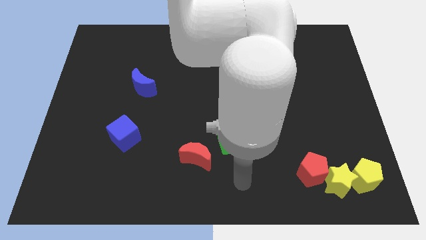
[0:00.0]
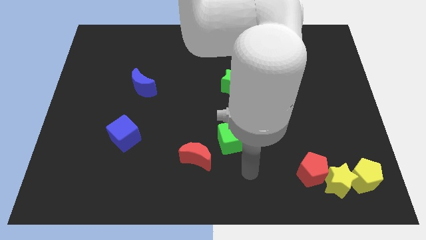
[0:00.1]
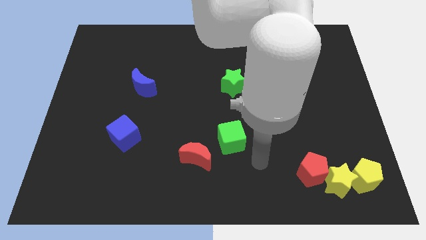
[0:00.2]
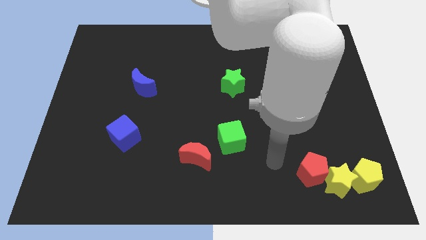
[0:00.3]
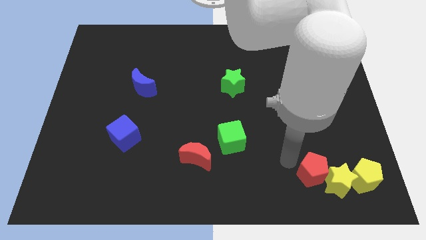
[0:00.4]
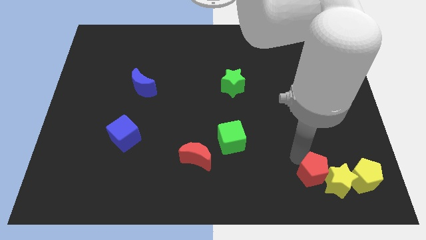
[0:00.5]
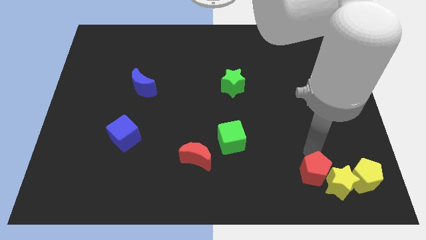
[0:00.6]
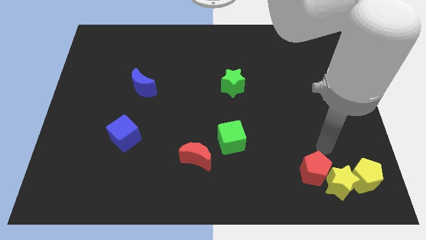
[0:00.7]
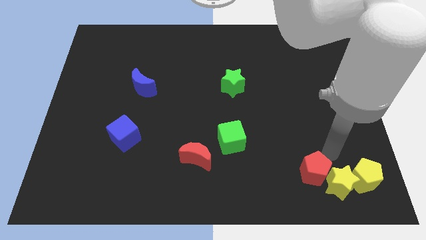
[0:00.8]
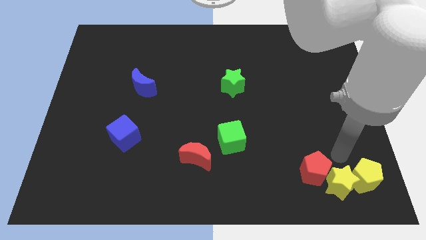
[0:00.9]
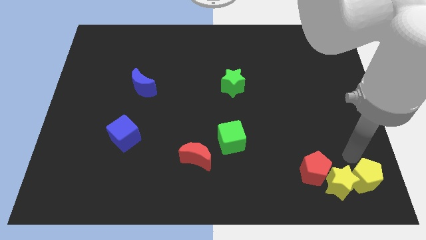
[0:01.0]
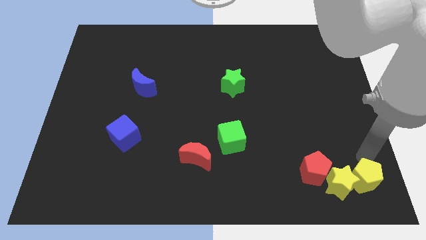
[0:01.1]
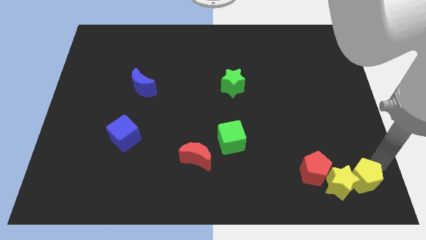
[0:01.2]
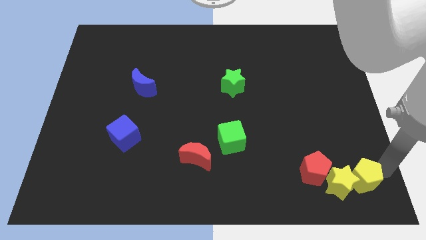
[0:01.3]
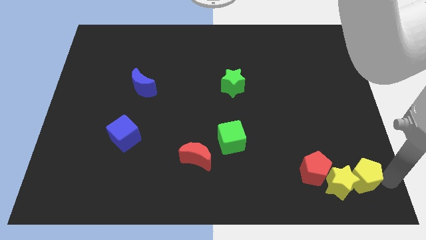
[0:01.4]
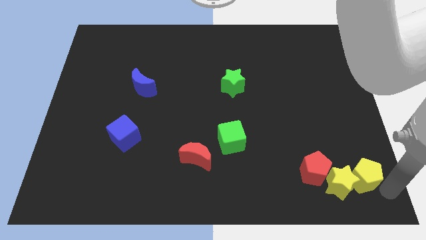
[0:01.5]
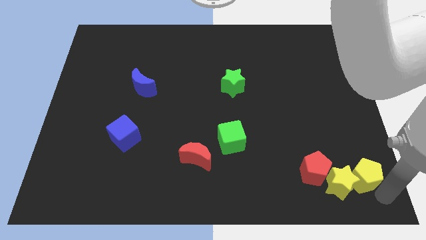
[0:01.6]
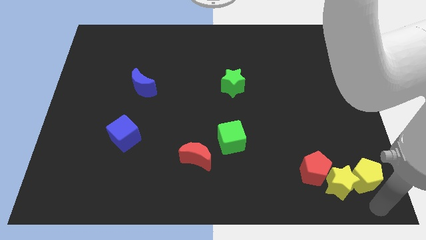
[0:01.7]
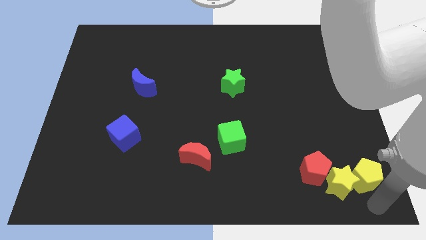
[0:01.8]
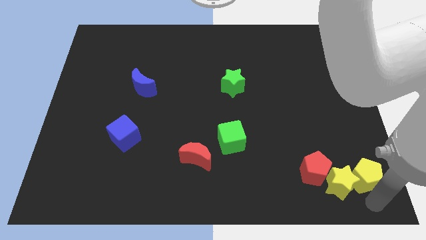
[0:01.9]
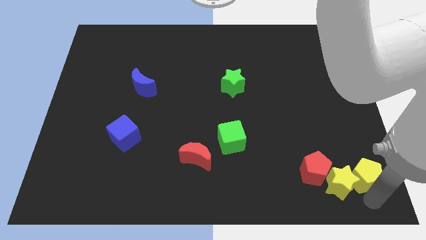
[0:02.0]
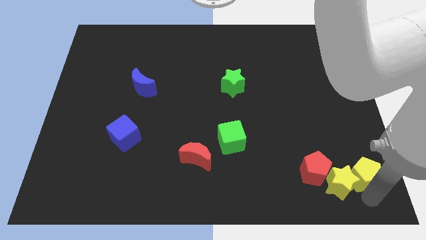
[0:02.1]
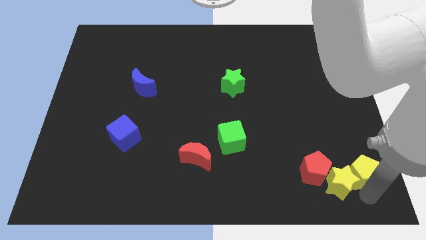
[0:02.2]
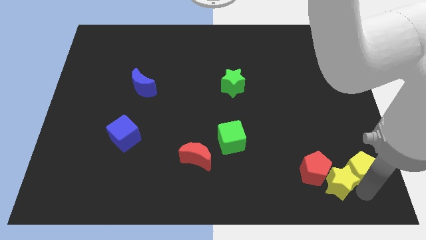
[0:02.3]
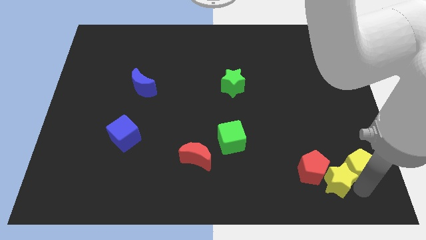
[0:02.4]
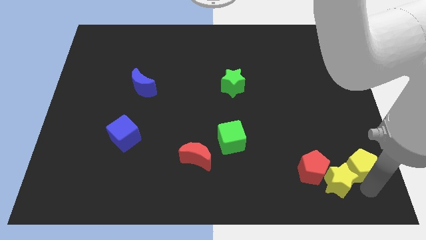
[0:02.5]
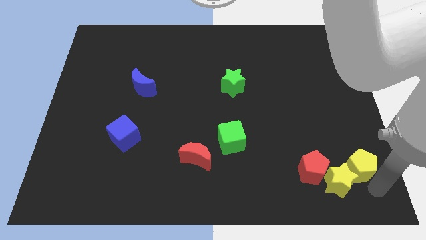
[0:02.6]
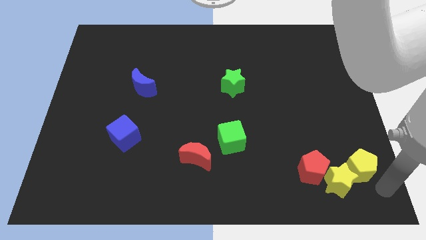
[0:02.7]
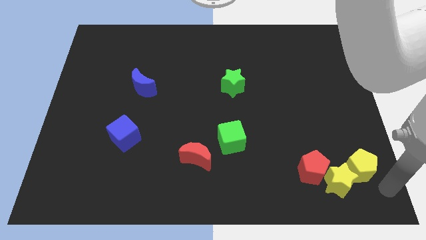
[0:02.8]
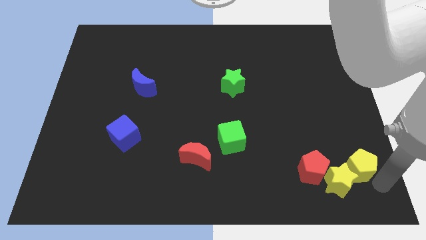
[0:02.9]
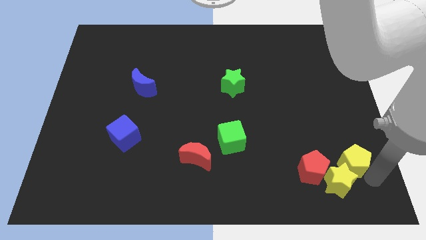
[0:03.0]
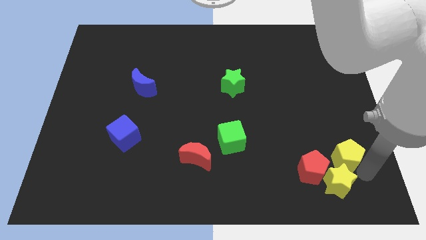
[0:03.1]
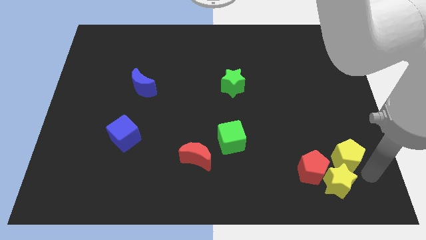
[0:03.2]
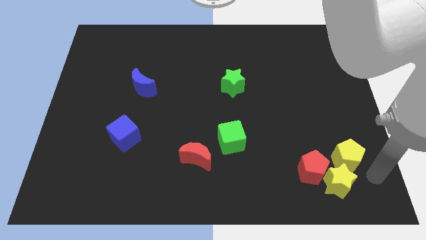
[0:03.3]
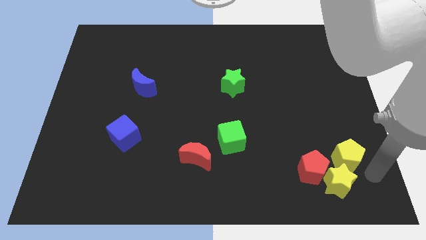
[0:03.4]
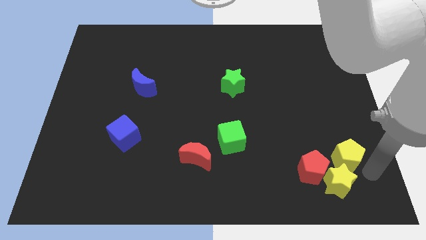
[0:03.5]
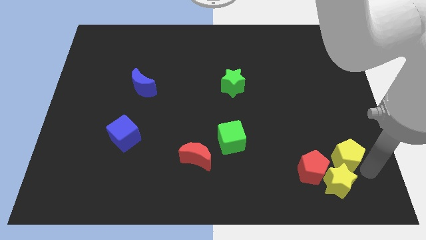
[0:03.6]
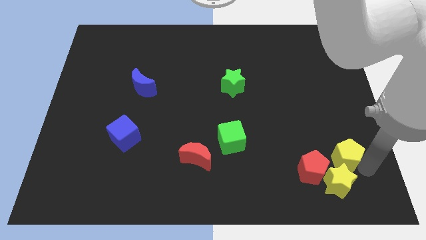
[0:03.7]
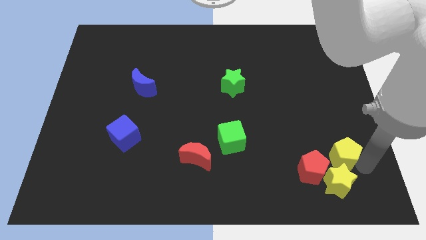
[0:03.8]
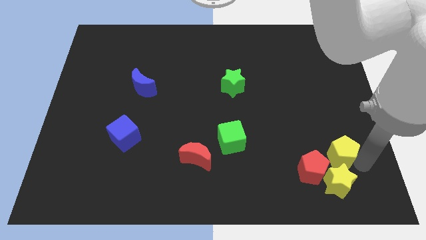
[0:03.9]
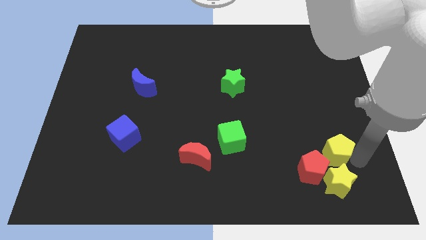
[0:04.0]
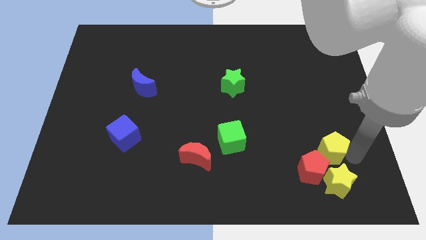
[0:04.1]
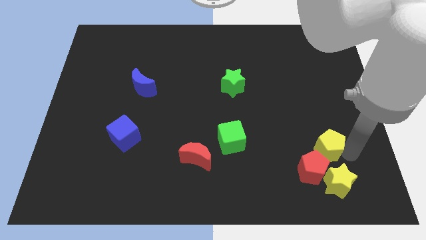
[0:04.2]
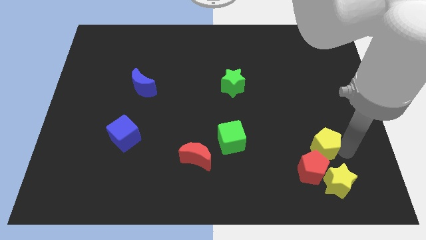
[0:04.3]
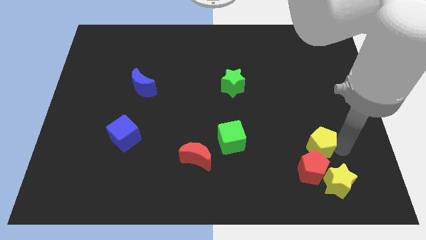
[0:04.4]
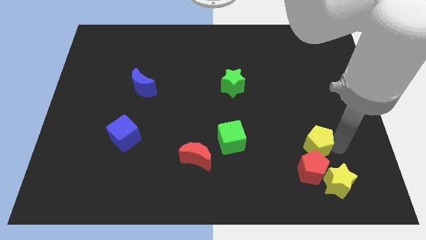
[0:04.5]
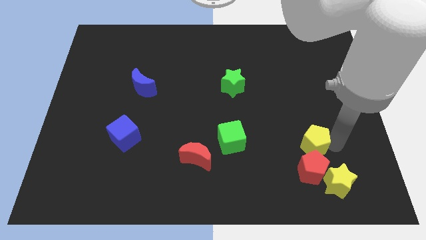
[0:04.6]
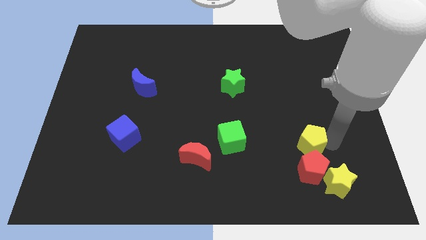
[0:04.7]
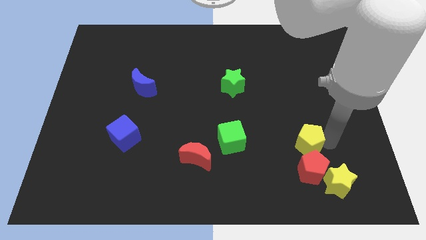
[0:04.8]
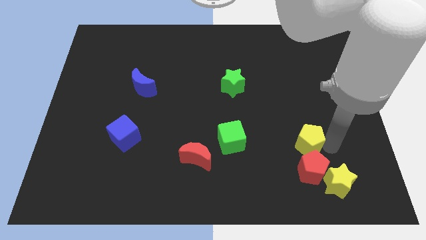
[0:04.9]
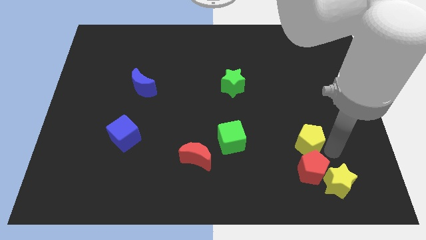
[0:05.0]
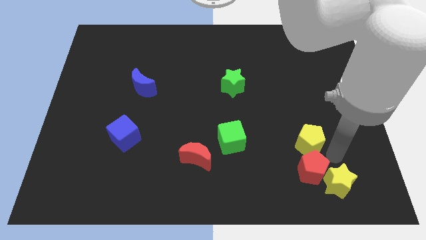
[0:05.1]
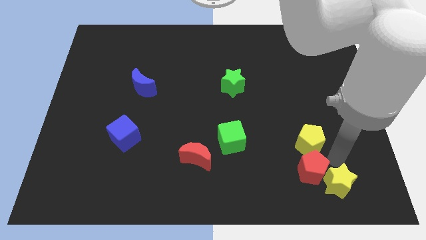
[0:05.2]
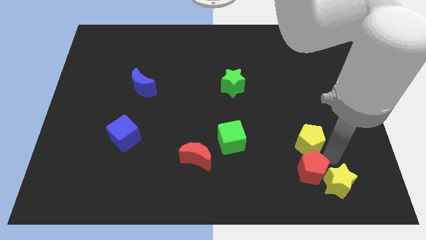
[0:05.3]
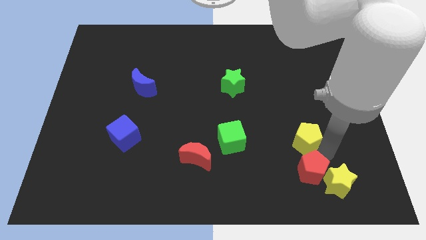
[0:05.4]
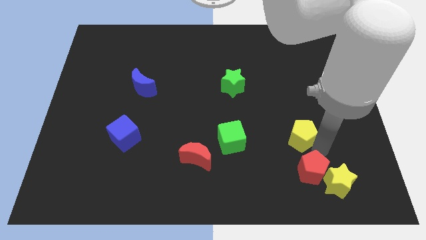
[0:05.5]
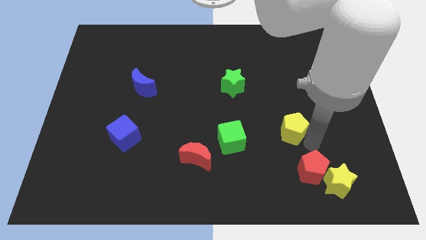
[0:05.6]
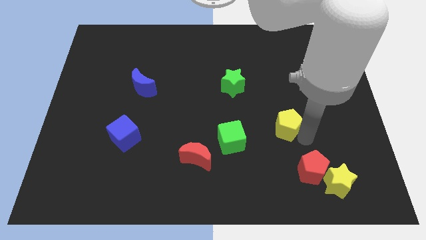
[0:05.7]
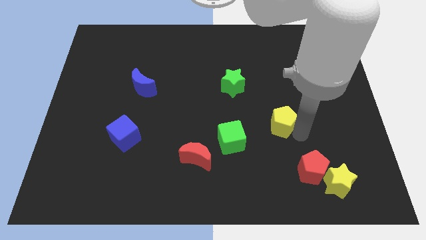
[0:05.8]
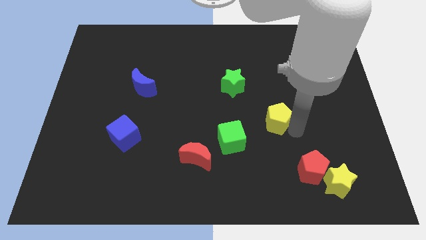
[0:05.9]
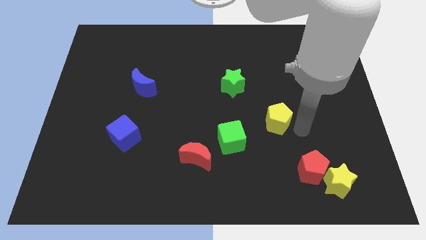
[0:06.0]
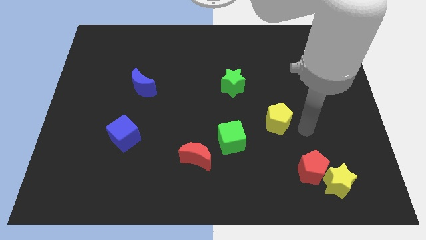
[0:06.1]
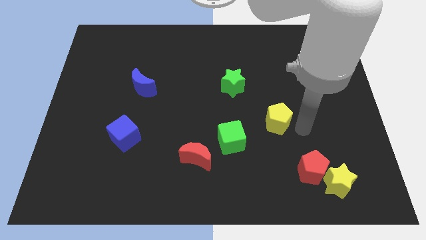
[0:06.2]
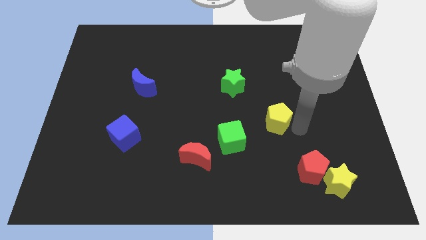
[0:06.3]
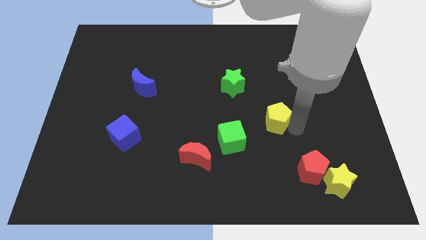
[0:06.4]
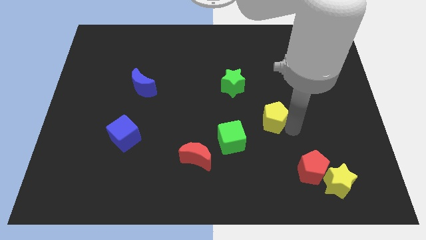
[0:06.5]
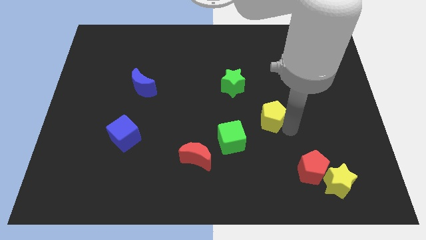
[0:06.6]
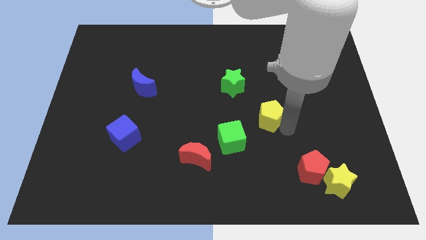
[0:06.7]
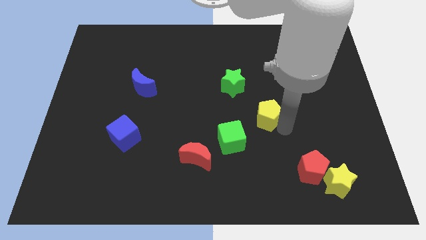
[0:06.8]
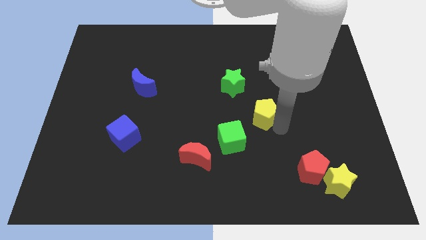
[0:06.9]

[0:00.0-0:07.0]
move the yellow pentagon to the middle
